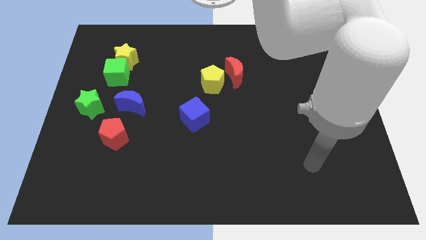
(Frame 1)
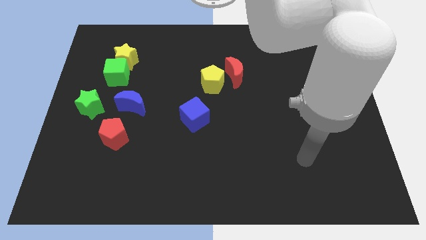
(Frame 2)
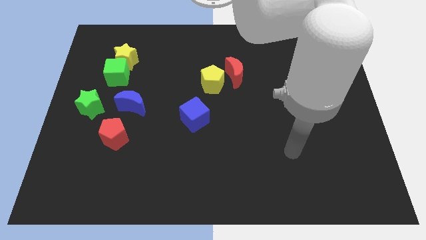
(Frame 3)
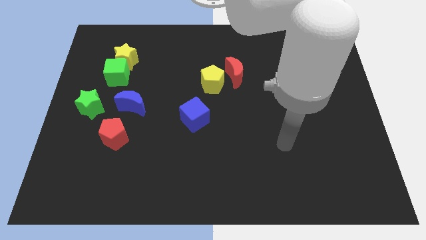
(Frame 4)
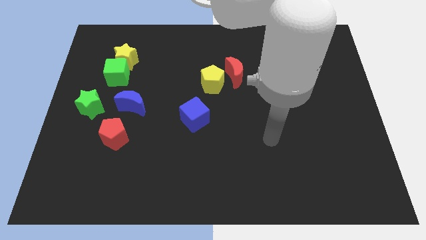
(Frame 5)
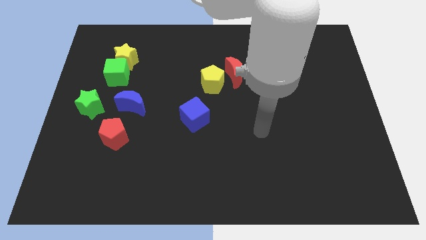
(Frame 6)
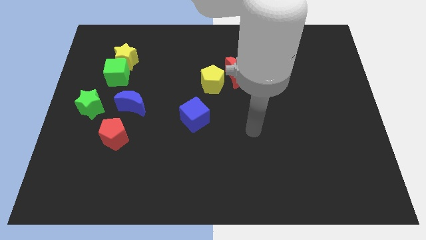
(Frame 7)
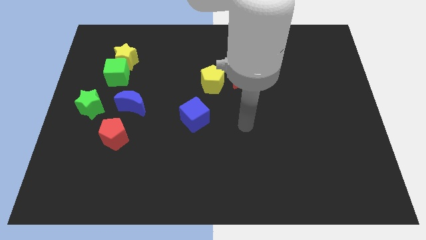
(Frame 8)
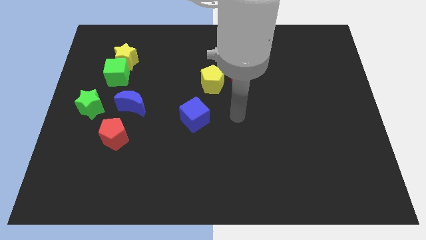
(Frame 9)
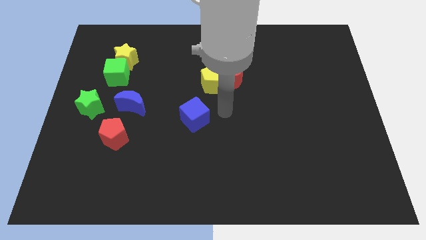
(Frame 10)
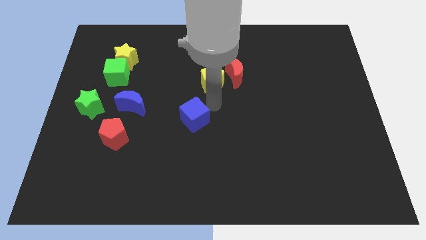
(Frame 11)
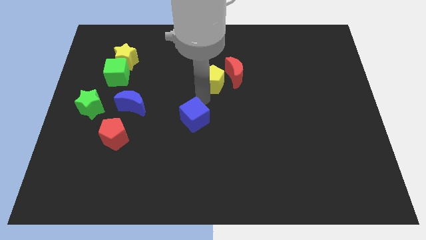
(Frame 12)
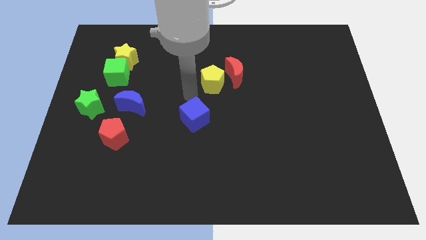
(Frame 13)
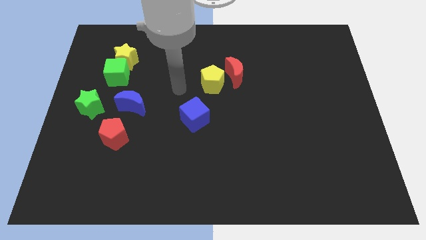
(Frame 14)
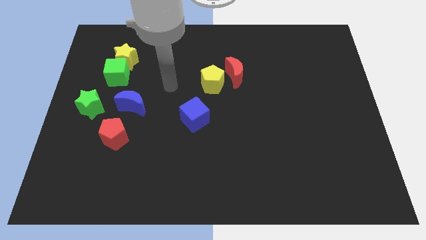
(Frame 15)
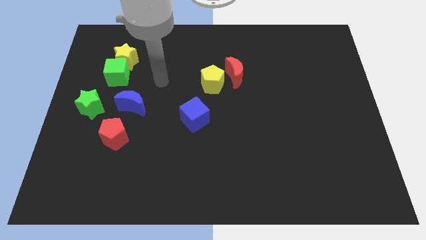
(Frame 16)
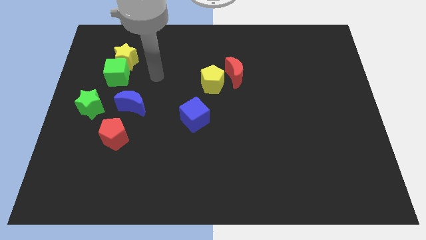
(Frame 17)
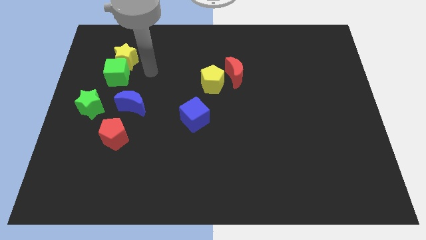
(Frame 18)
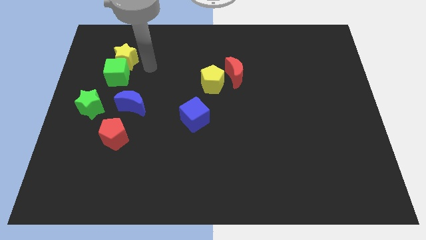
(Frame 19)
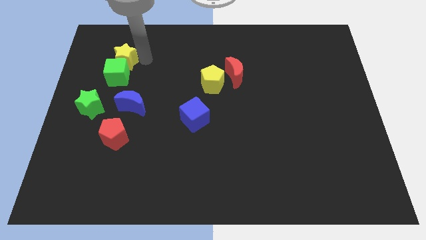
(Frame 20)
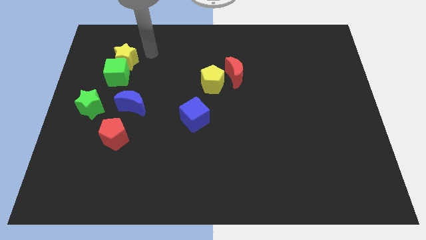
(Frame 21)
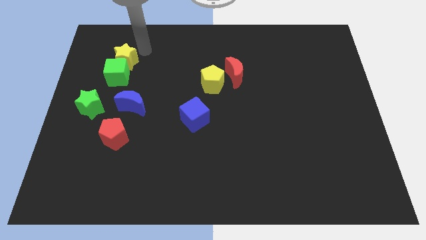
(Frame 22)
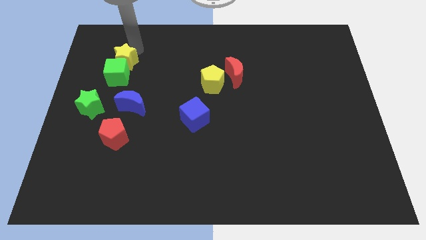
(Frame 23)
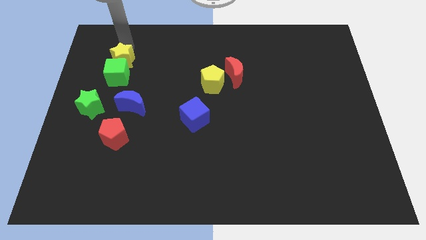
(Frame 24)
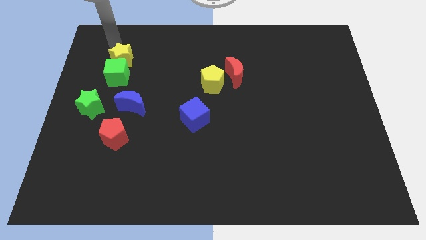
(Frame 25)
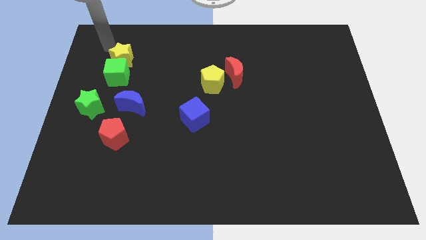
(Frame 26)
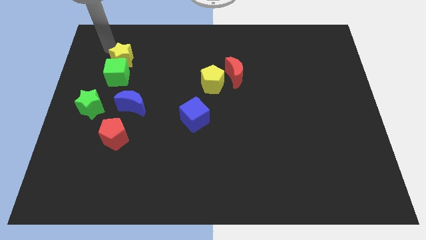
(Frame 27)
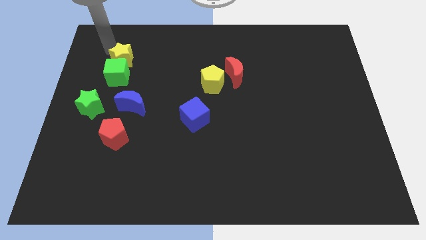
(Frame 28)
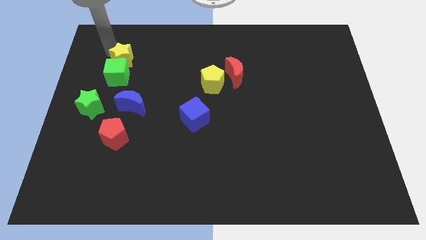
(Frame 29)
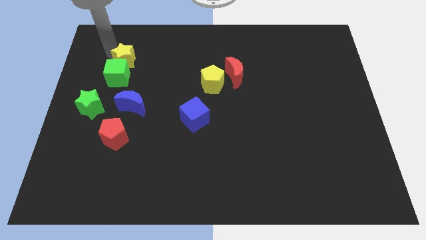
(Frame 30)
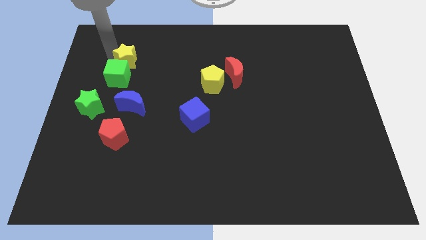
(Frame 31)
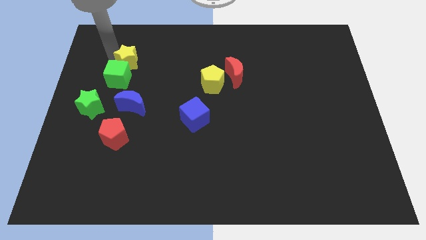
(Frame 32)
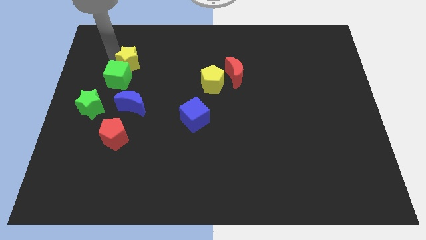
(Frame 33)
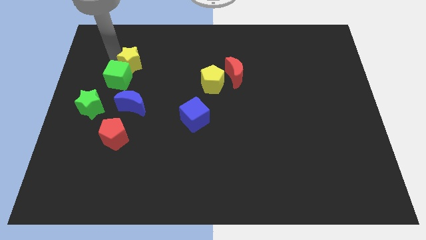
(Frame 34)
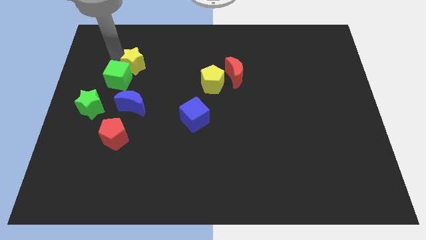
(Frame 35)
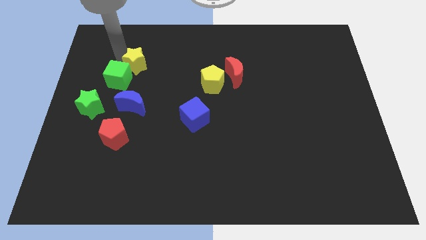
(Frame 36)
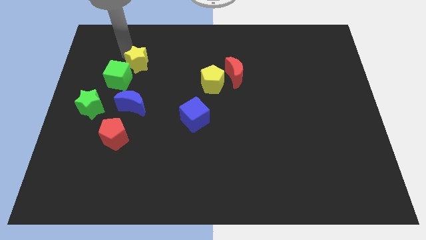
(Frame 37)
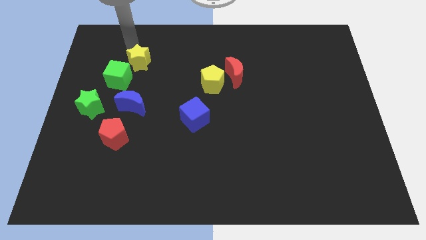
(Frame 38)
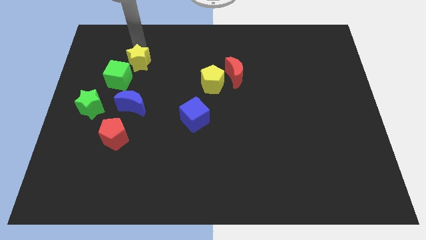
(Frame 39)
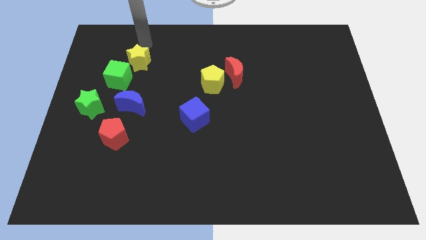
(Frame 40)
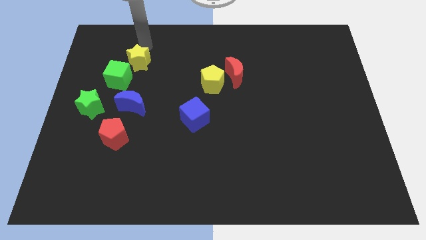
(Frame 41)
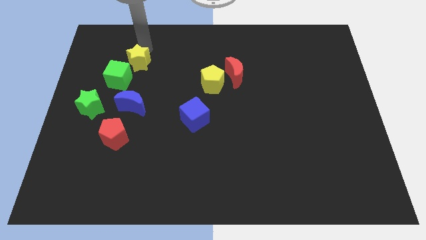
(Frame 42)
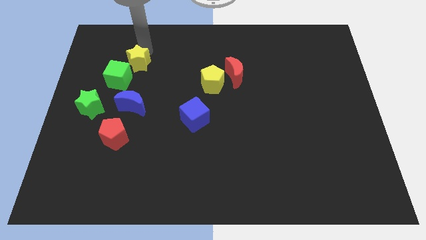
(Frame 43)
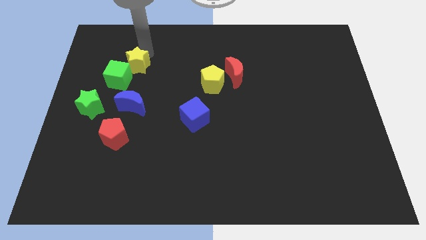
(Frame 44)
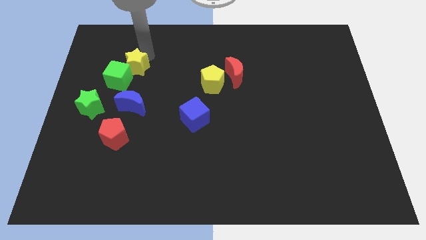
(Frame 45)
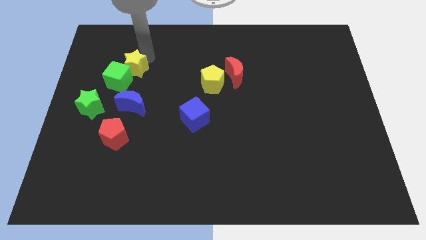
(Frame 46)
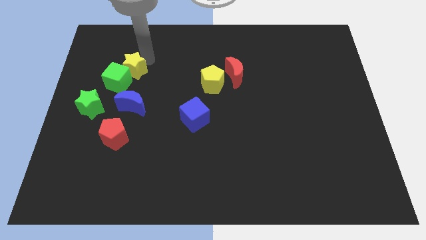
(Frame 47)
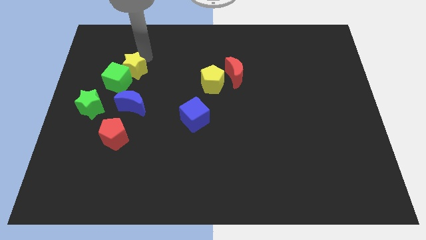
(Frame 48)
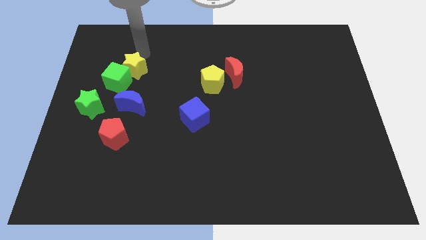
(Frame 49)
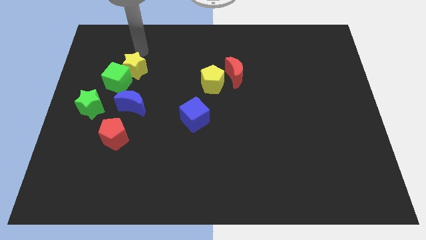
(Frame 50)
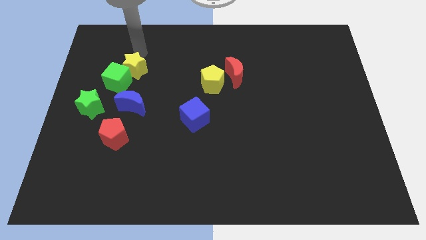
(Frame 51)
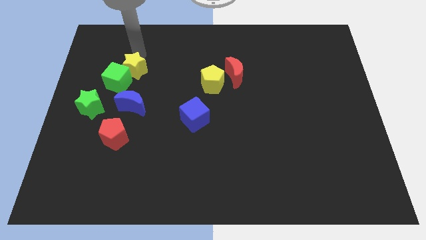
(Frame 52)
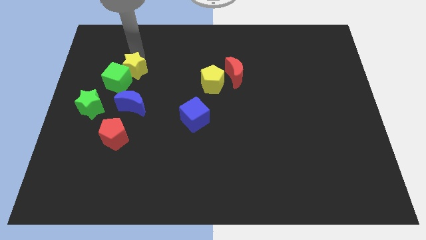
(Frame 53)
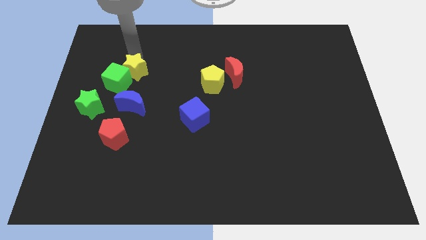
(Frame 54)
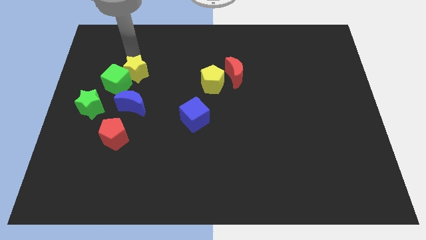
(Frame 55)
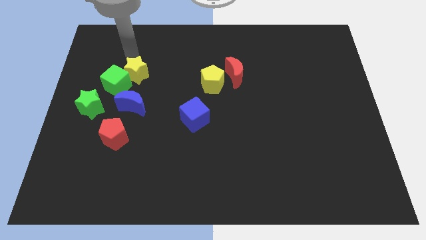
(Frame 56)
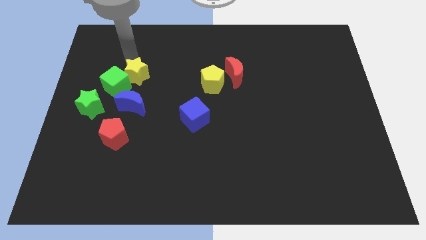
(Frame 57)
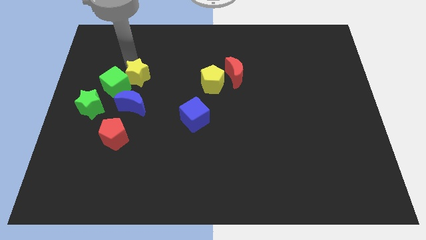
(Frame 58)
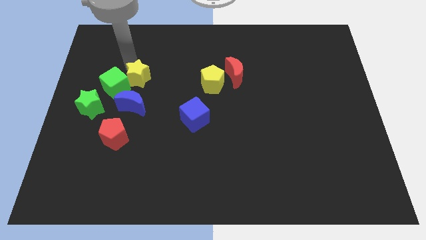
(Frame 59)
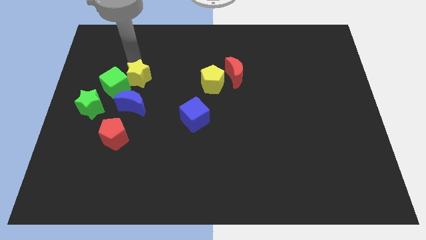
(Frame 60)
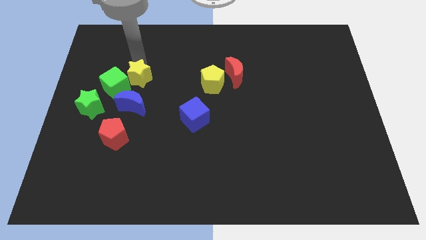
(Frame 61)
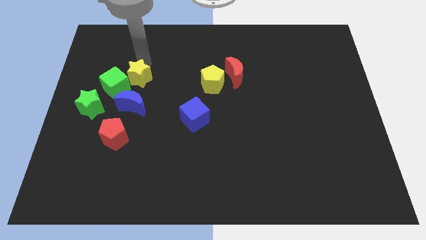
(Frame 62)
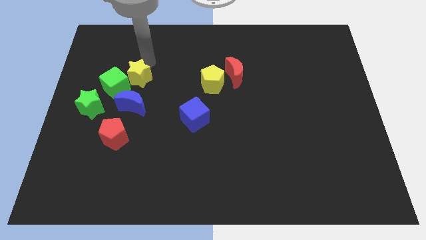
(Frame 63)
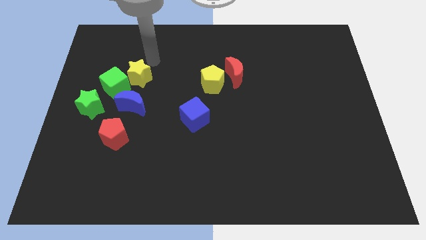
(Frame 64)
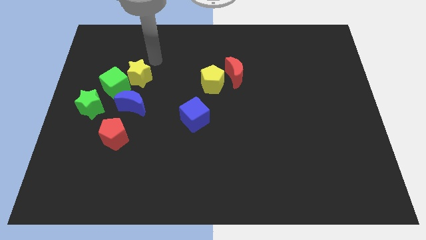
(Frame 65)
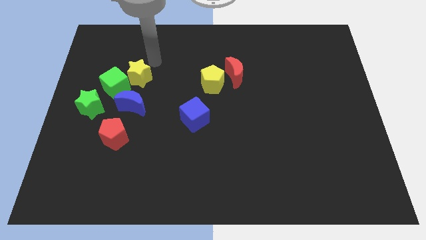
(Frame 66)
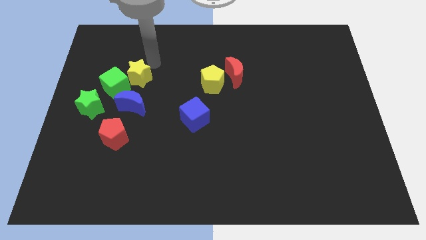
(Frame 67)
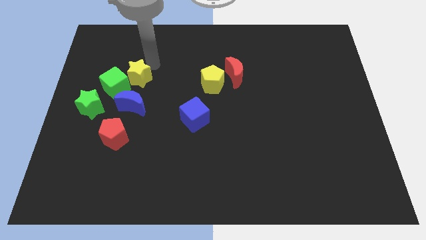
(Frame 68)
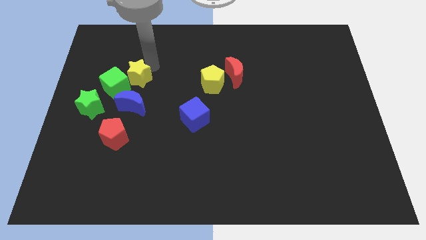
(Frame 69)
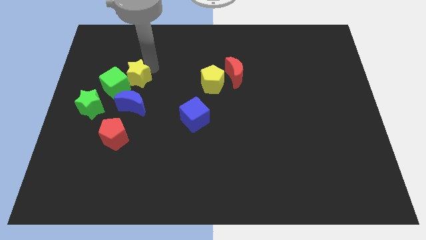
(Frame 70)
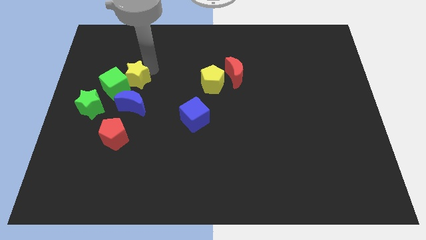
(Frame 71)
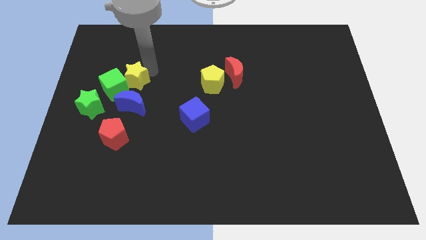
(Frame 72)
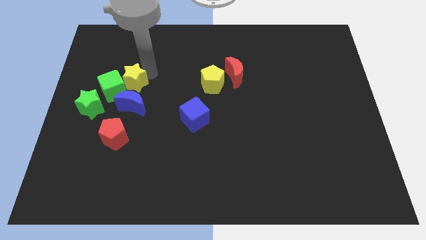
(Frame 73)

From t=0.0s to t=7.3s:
slide the yellow star somewhat down

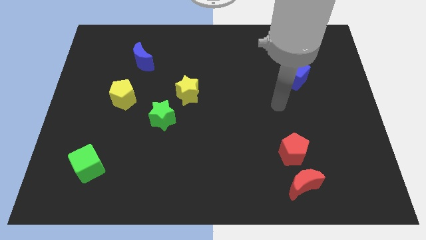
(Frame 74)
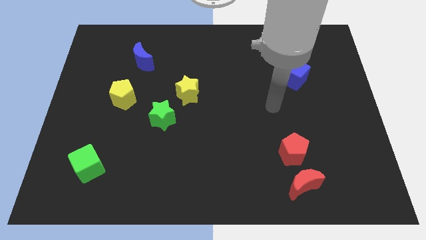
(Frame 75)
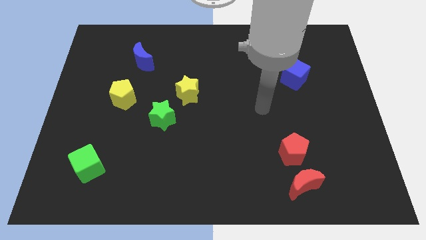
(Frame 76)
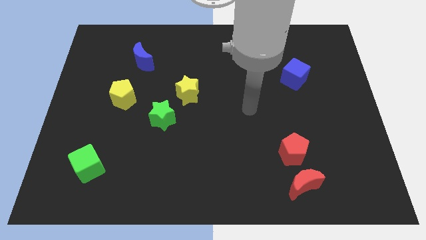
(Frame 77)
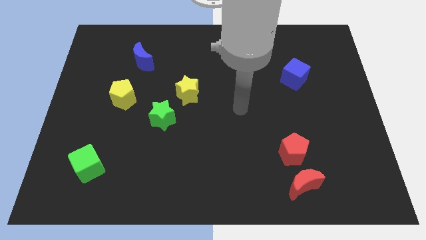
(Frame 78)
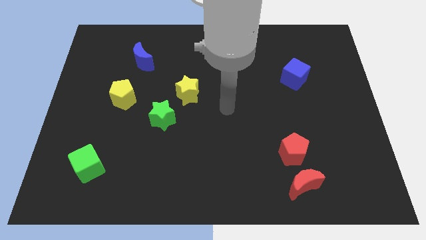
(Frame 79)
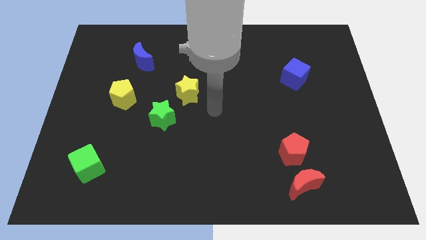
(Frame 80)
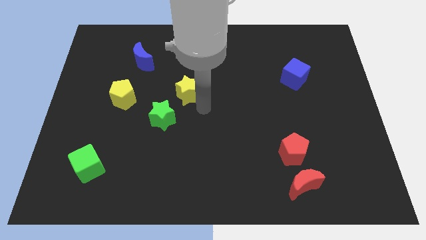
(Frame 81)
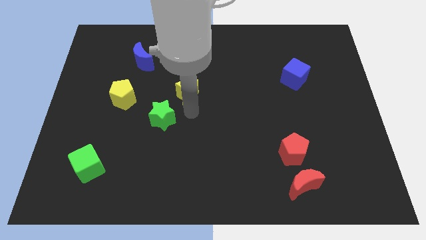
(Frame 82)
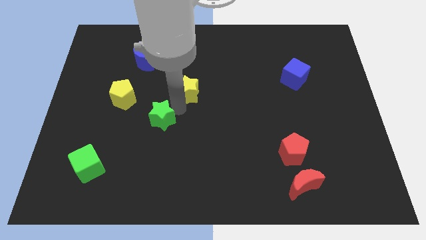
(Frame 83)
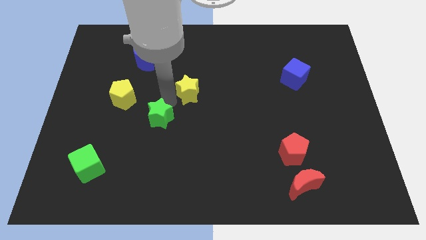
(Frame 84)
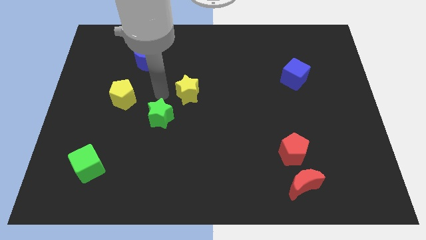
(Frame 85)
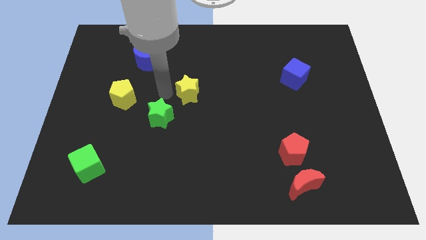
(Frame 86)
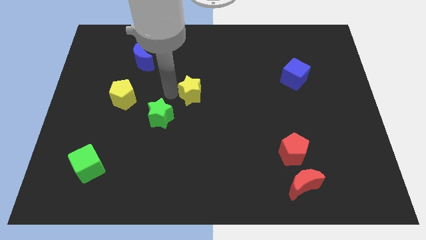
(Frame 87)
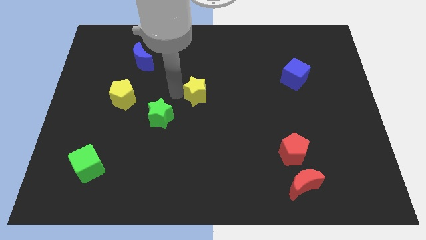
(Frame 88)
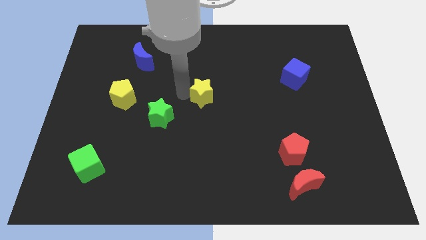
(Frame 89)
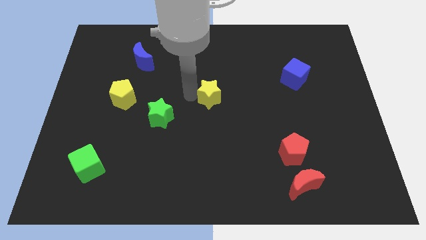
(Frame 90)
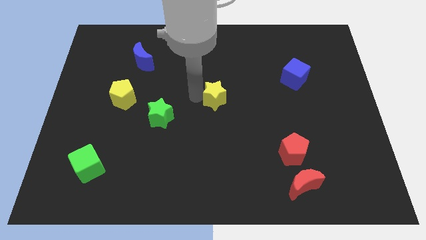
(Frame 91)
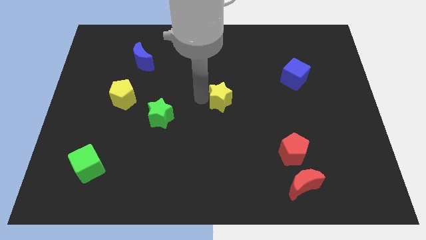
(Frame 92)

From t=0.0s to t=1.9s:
slightly move the yellow star to the right
